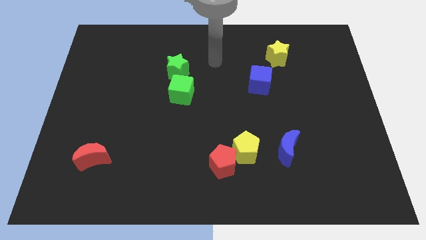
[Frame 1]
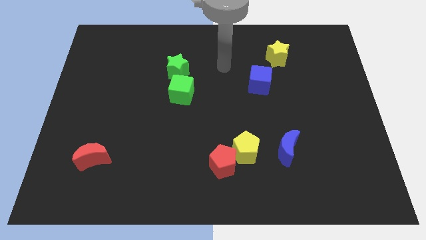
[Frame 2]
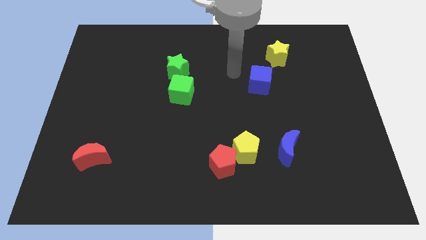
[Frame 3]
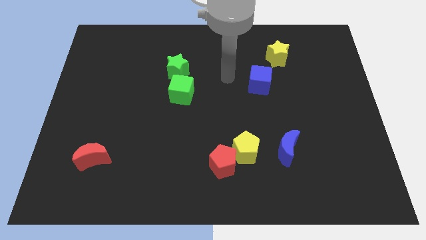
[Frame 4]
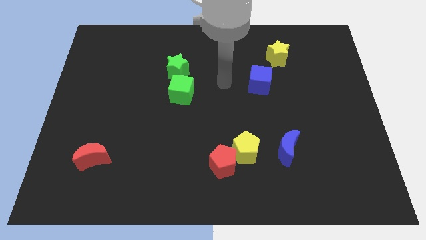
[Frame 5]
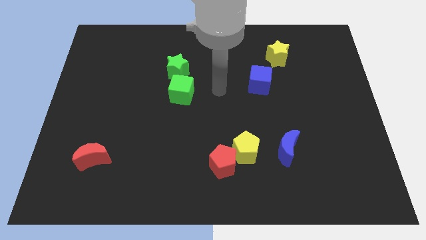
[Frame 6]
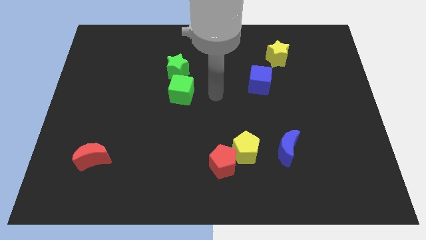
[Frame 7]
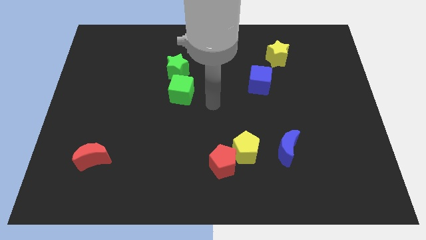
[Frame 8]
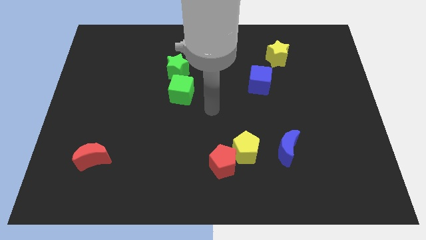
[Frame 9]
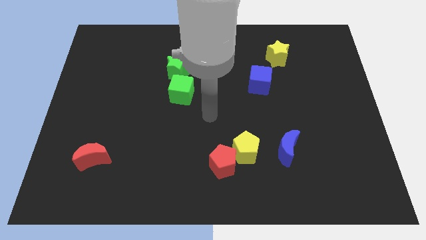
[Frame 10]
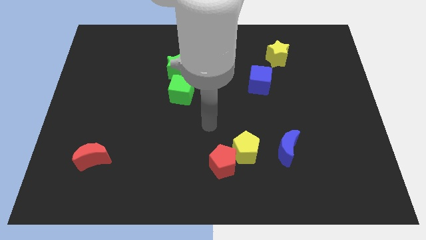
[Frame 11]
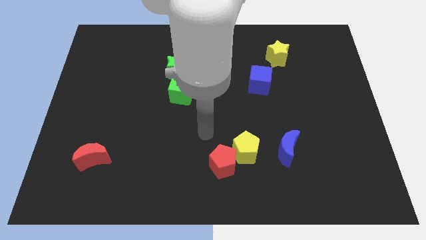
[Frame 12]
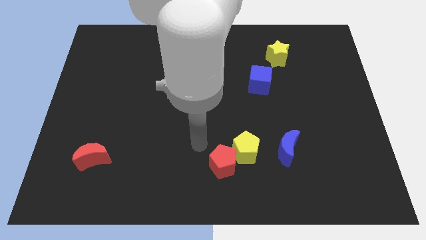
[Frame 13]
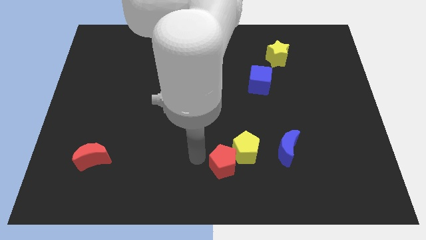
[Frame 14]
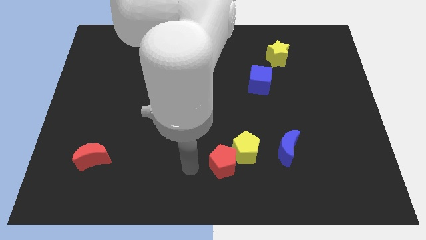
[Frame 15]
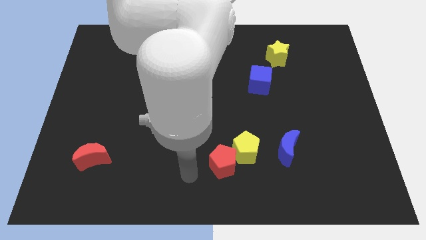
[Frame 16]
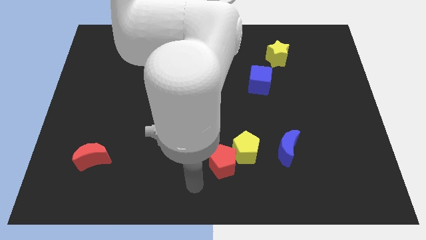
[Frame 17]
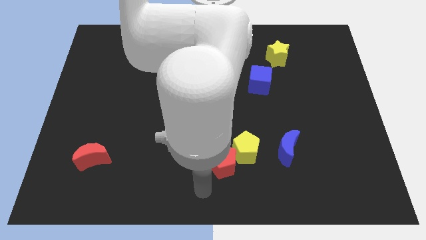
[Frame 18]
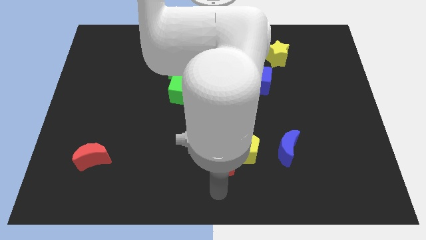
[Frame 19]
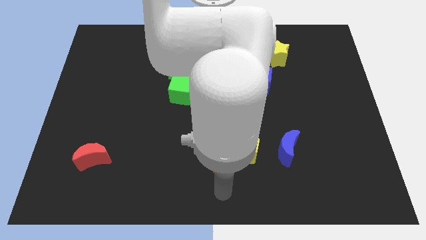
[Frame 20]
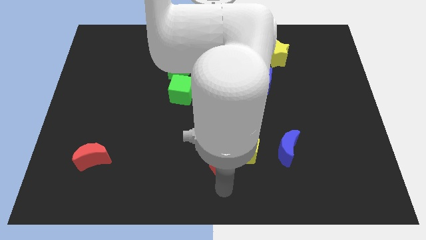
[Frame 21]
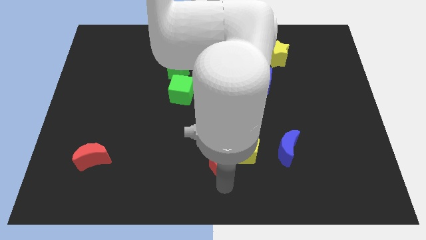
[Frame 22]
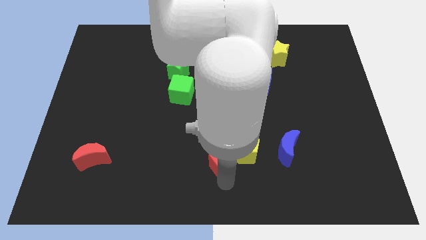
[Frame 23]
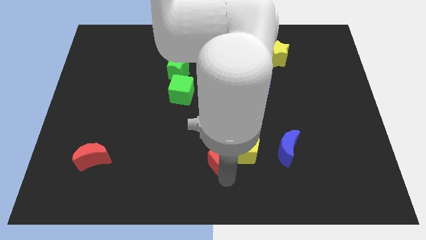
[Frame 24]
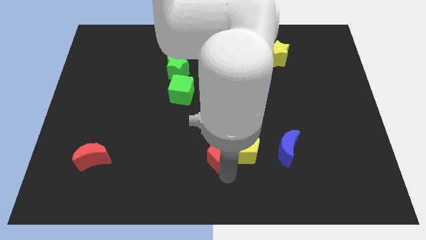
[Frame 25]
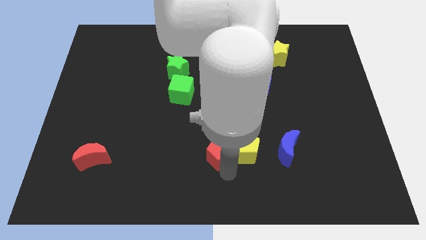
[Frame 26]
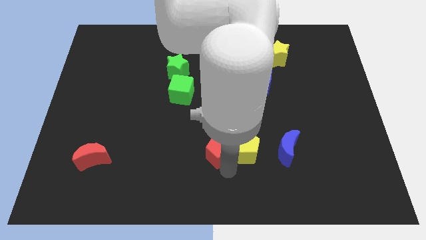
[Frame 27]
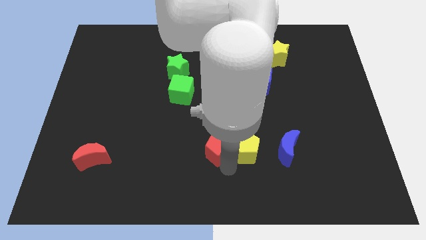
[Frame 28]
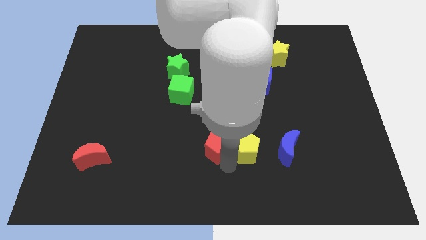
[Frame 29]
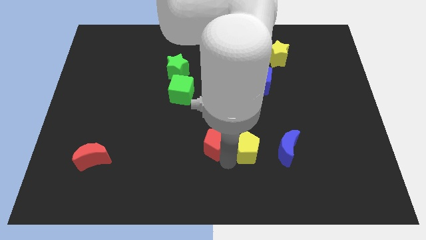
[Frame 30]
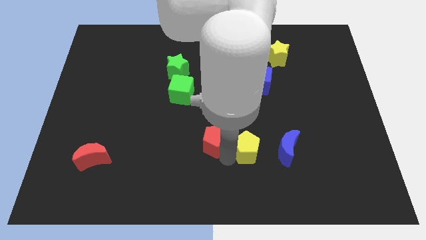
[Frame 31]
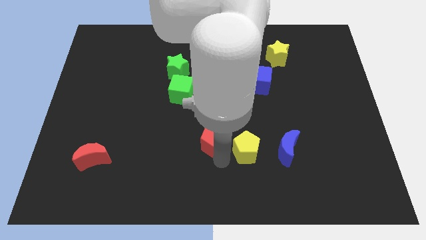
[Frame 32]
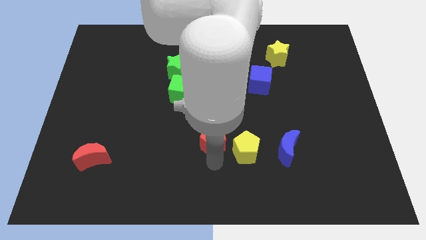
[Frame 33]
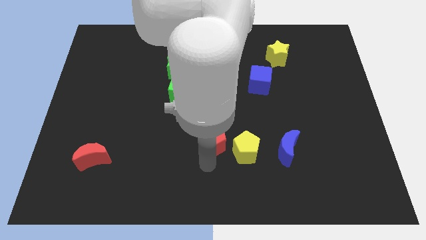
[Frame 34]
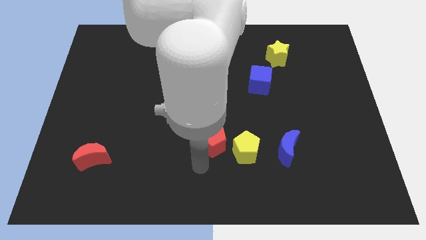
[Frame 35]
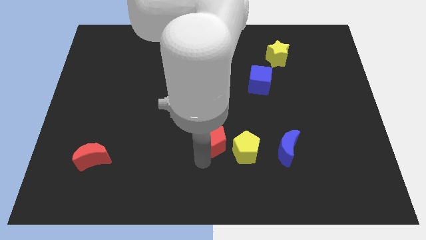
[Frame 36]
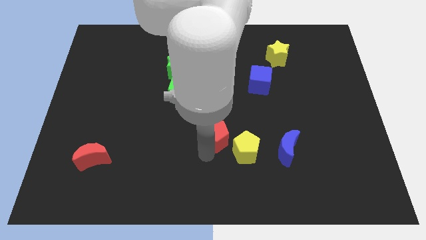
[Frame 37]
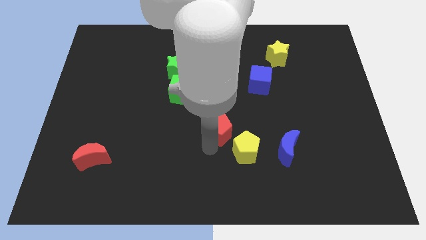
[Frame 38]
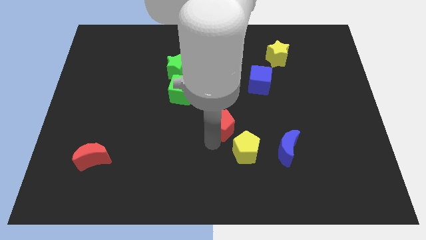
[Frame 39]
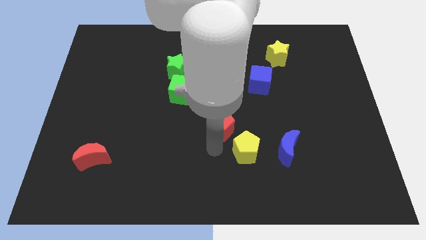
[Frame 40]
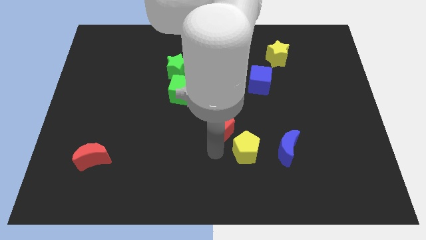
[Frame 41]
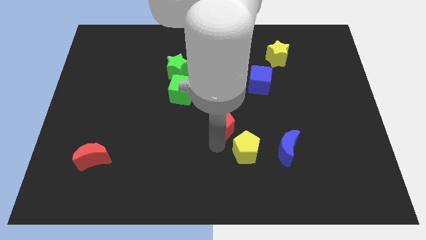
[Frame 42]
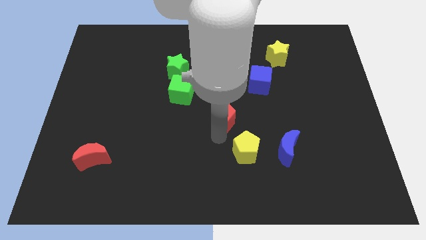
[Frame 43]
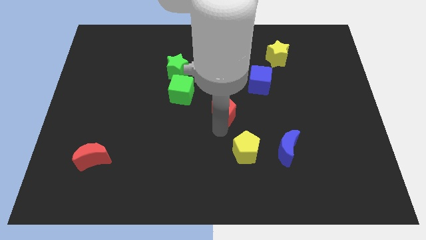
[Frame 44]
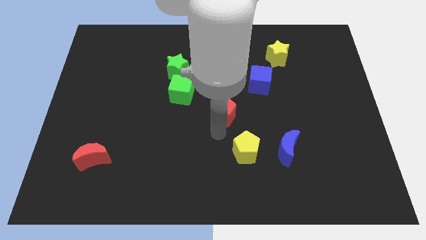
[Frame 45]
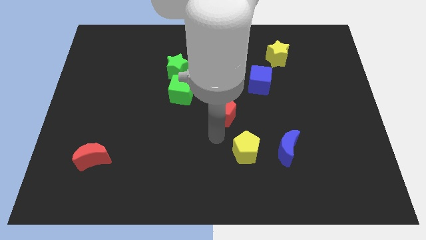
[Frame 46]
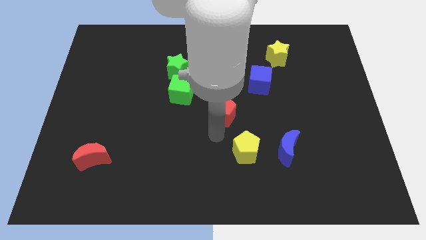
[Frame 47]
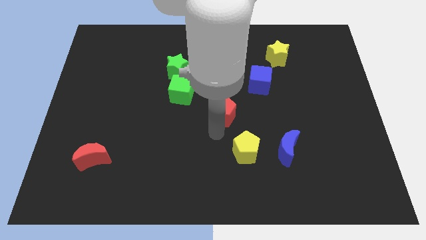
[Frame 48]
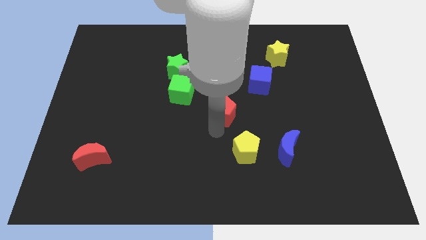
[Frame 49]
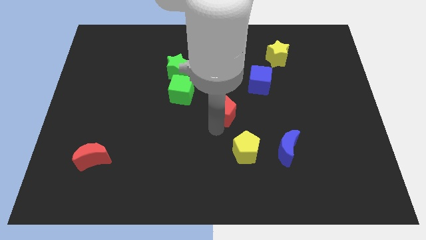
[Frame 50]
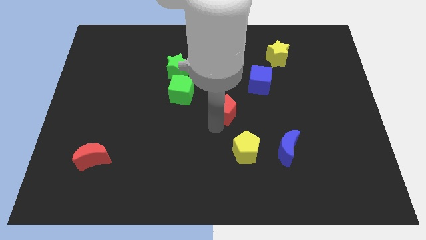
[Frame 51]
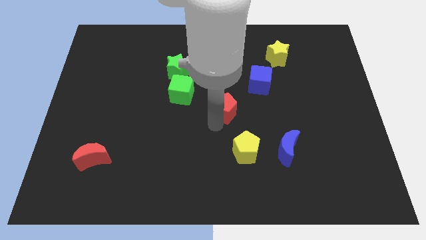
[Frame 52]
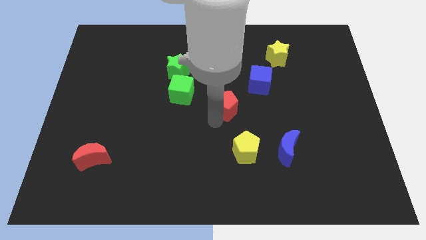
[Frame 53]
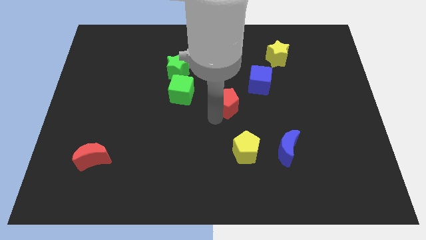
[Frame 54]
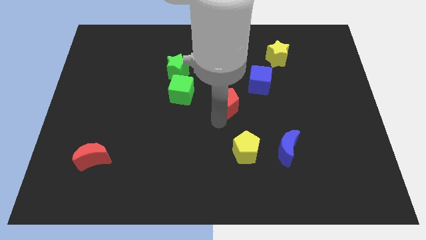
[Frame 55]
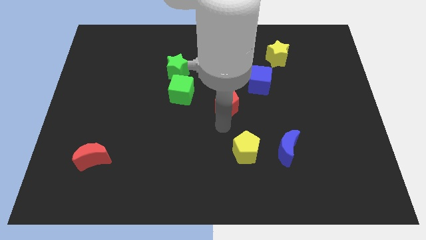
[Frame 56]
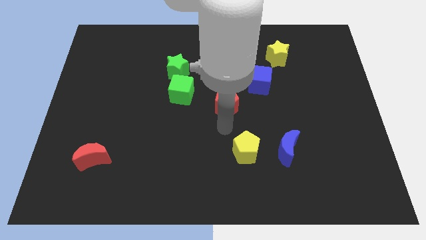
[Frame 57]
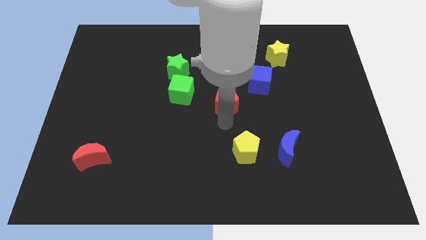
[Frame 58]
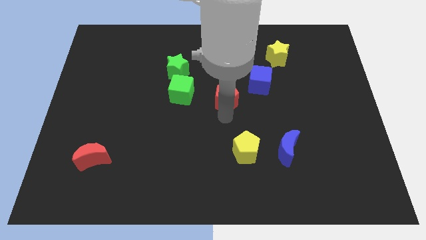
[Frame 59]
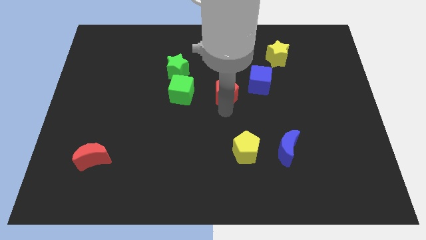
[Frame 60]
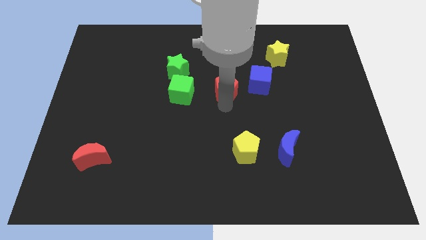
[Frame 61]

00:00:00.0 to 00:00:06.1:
push the red pentagon upwards

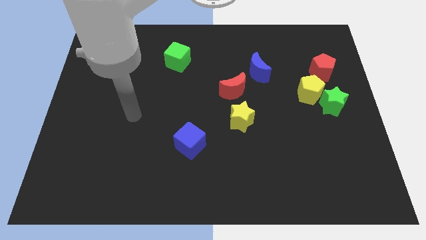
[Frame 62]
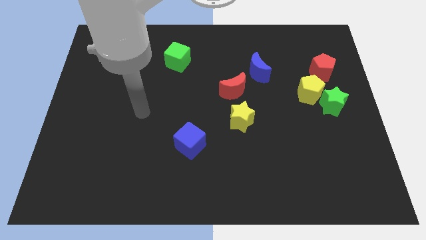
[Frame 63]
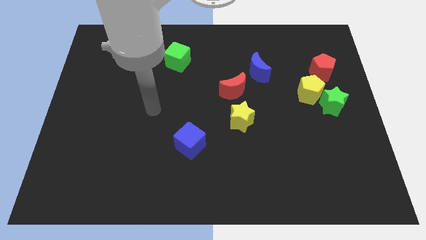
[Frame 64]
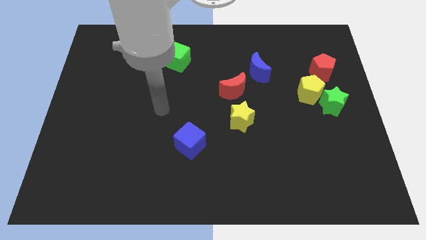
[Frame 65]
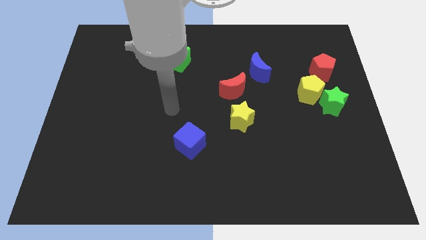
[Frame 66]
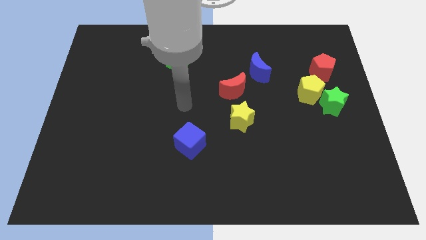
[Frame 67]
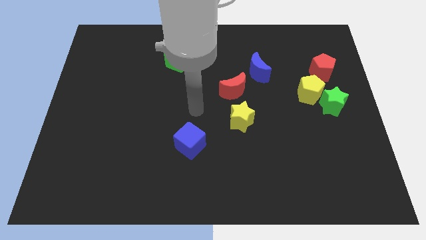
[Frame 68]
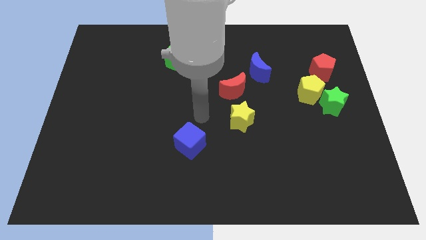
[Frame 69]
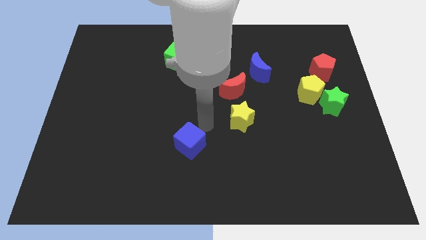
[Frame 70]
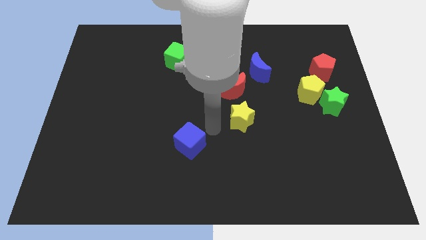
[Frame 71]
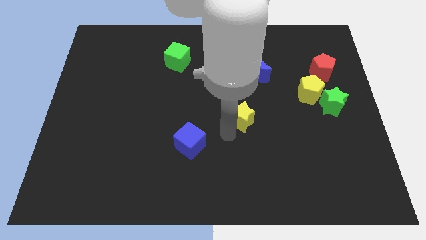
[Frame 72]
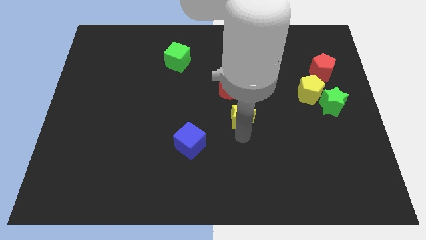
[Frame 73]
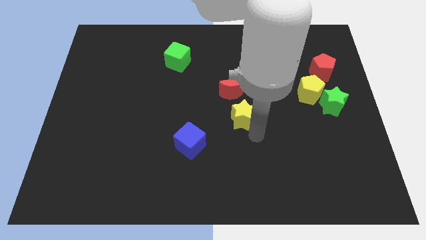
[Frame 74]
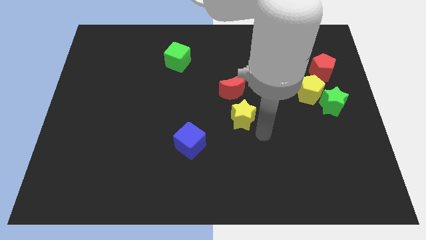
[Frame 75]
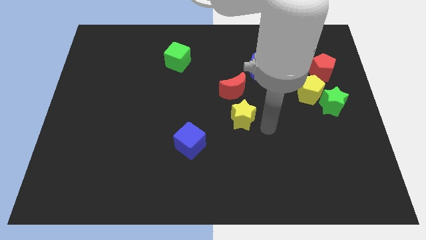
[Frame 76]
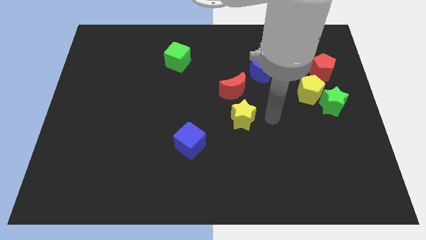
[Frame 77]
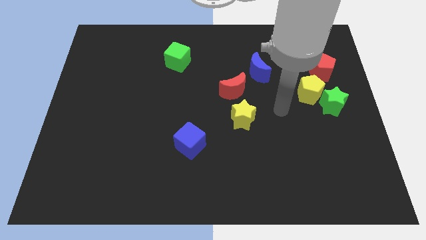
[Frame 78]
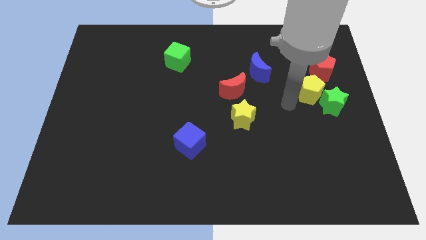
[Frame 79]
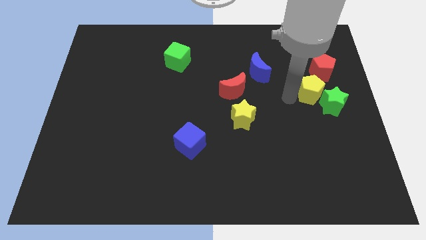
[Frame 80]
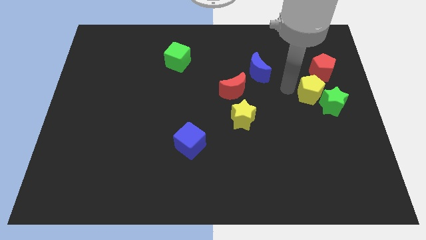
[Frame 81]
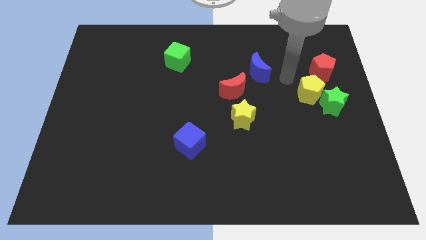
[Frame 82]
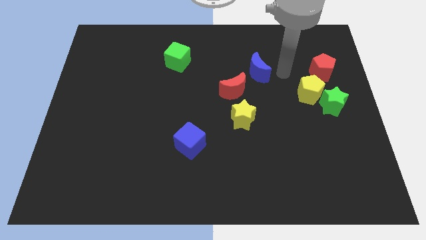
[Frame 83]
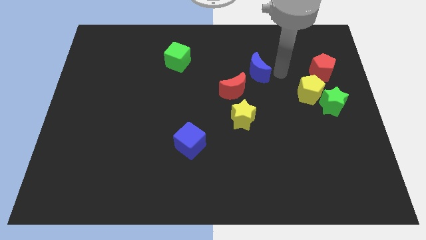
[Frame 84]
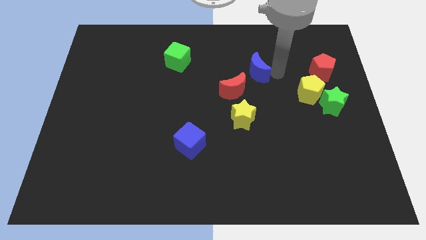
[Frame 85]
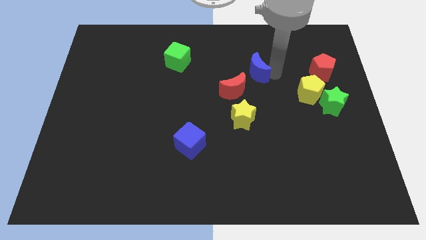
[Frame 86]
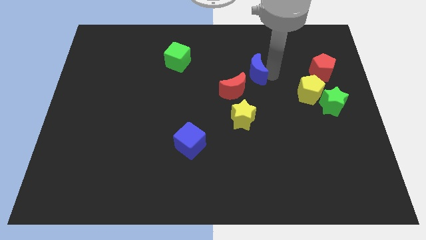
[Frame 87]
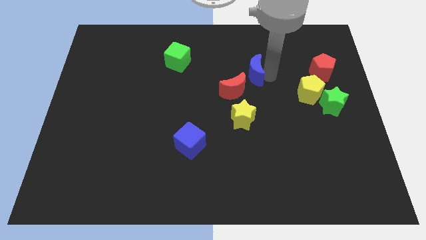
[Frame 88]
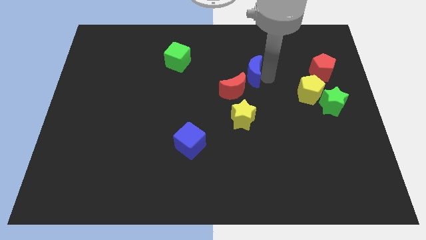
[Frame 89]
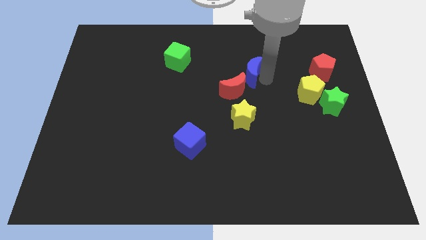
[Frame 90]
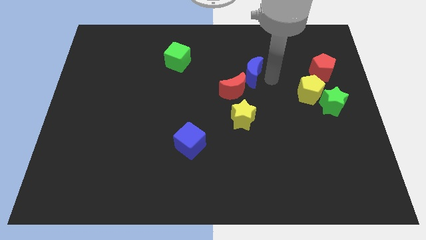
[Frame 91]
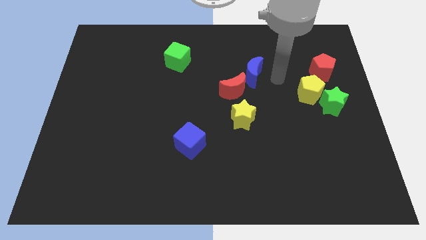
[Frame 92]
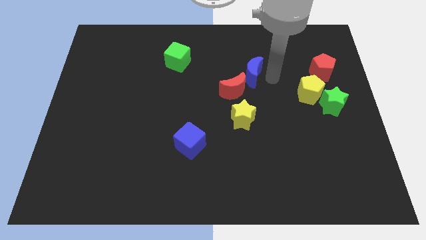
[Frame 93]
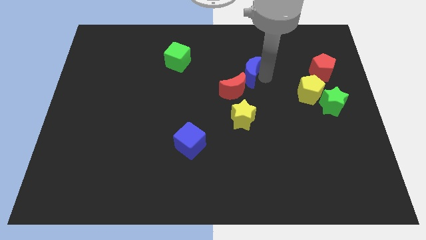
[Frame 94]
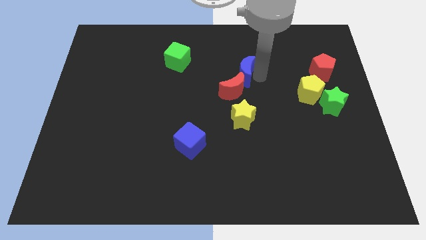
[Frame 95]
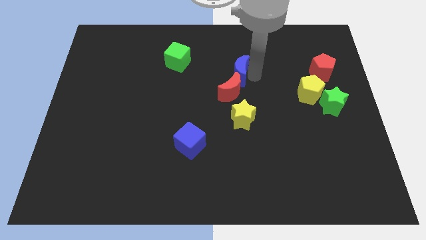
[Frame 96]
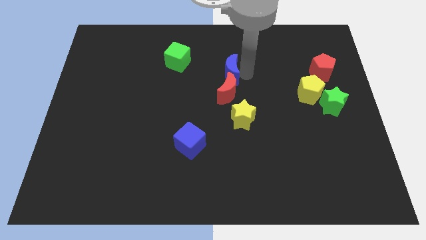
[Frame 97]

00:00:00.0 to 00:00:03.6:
move the blue moon to the left a little bit
